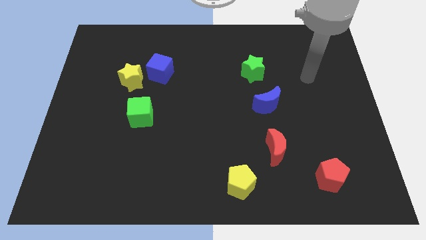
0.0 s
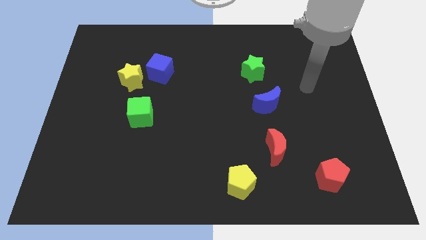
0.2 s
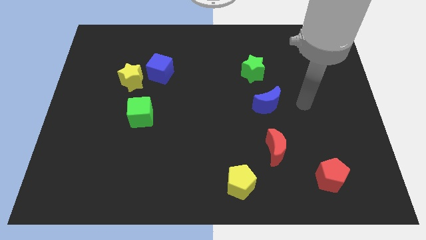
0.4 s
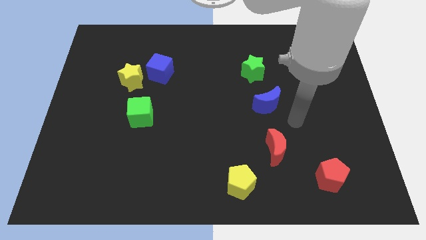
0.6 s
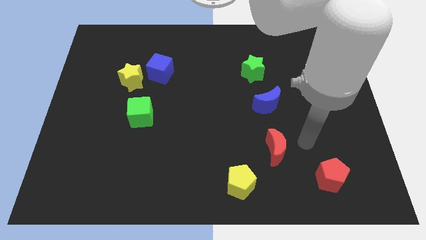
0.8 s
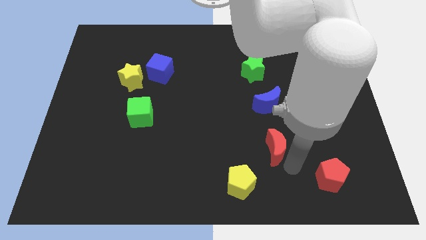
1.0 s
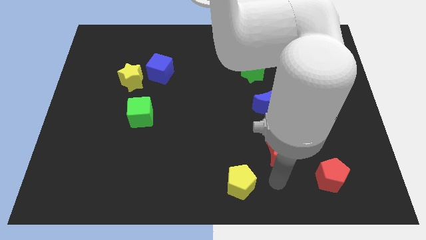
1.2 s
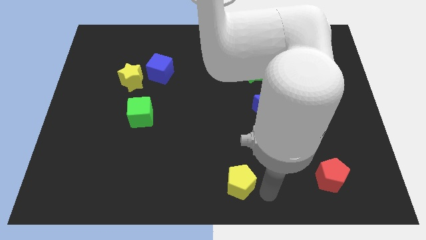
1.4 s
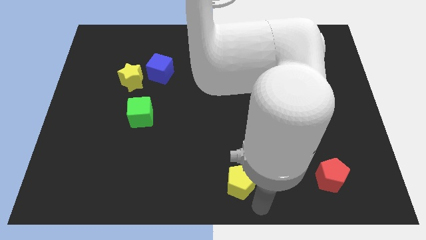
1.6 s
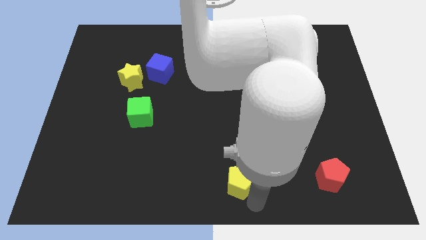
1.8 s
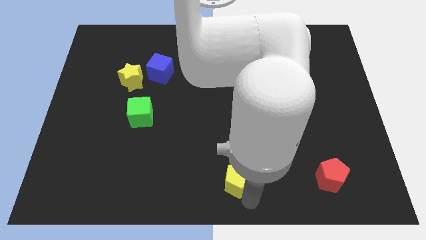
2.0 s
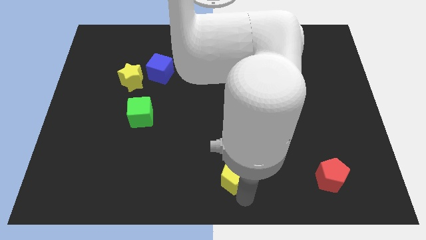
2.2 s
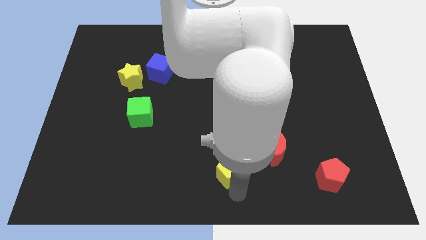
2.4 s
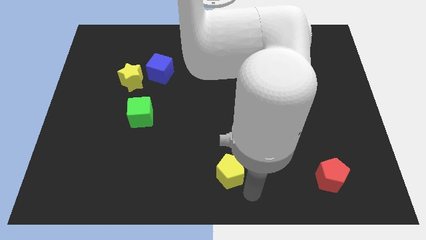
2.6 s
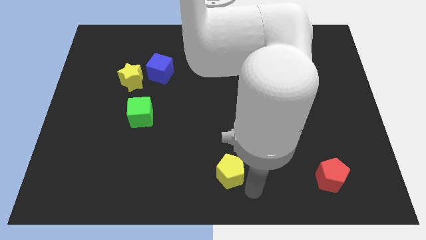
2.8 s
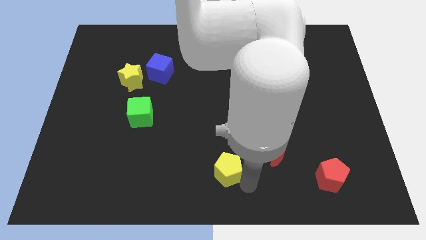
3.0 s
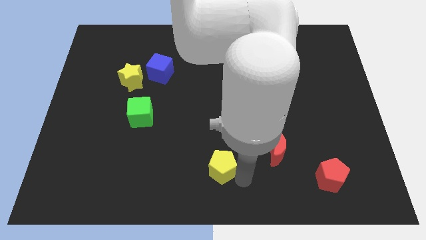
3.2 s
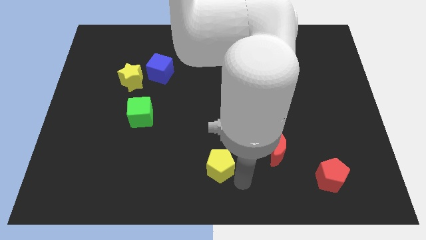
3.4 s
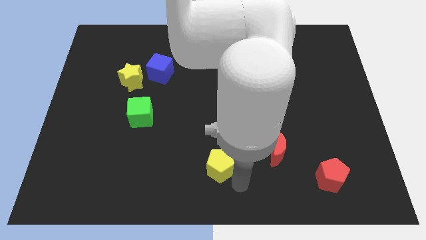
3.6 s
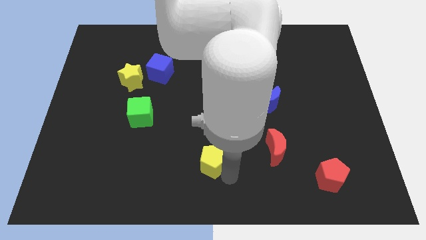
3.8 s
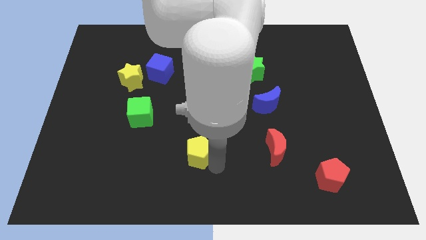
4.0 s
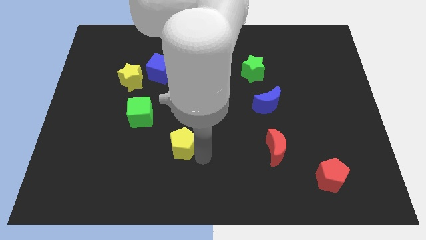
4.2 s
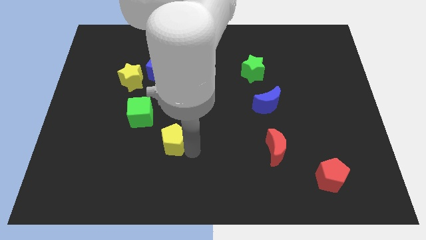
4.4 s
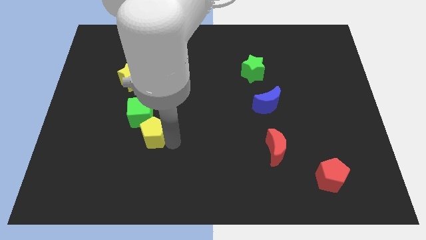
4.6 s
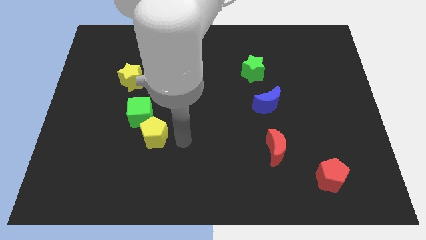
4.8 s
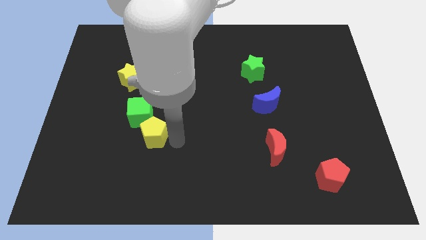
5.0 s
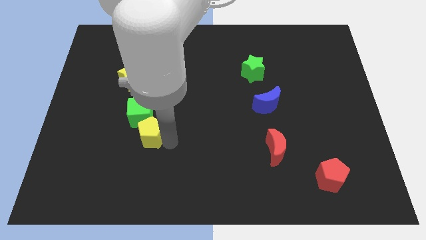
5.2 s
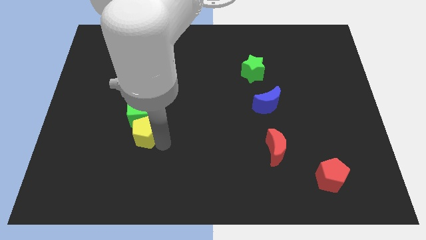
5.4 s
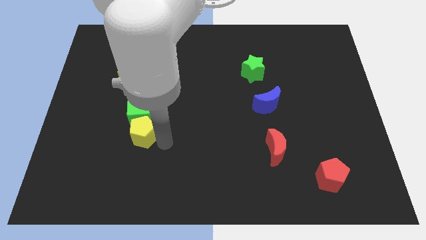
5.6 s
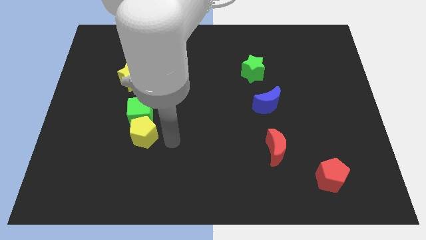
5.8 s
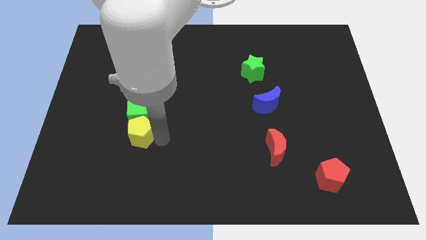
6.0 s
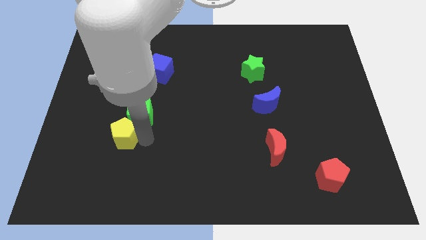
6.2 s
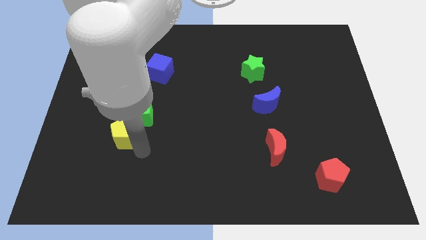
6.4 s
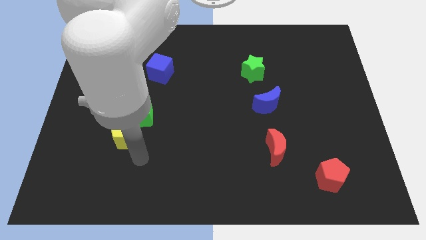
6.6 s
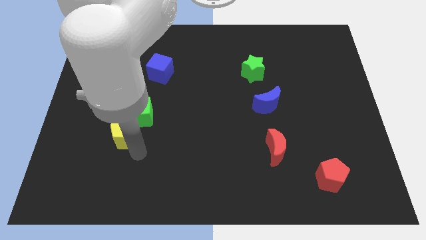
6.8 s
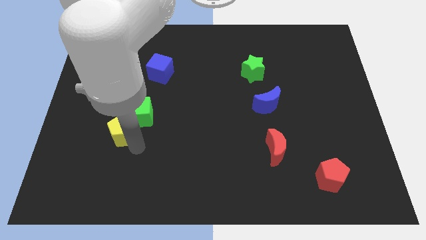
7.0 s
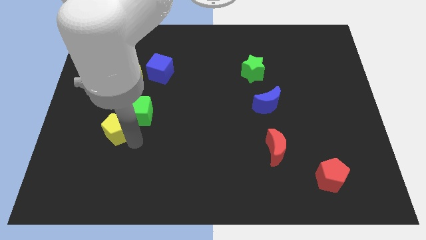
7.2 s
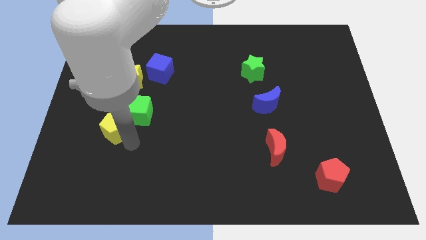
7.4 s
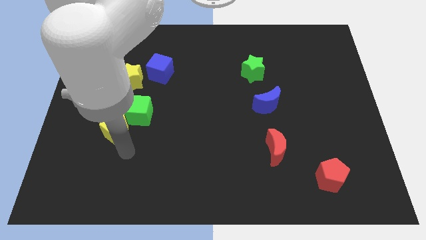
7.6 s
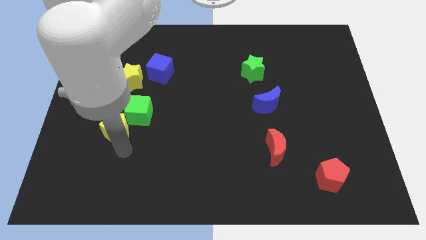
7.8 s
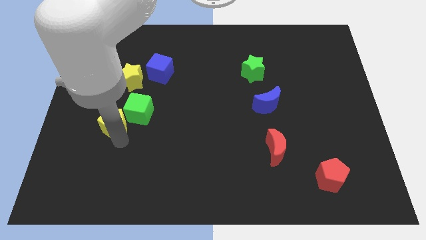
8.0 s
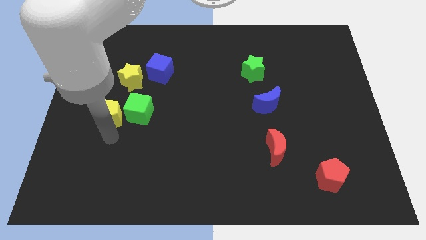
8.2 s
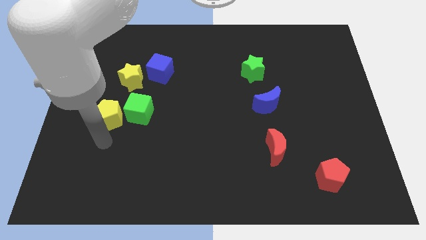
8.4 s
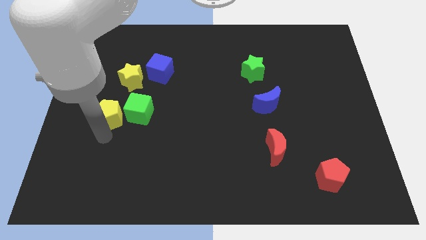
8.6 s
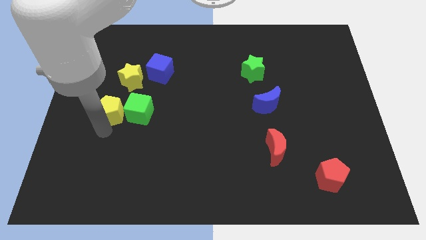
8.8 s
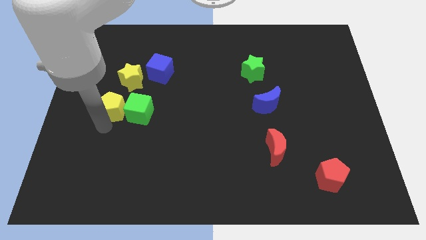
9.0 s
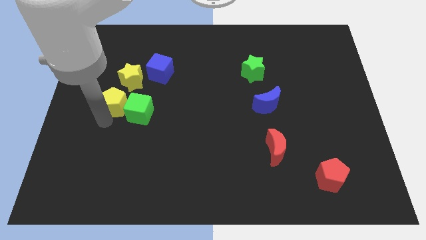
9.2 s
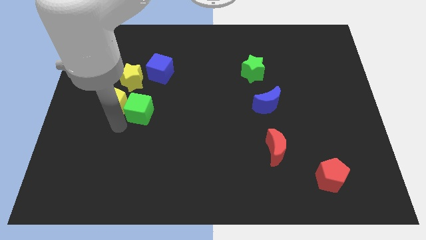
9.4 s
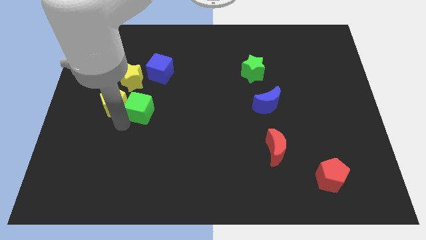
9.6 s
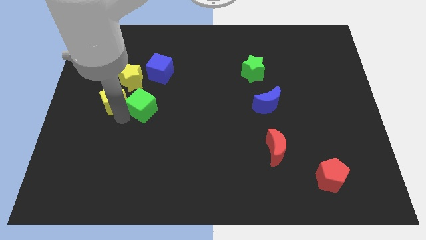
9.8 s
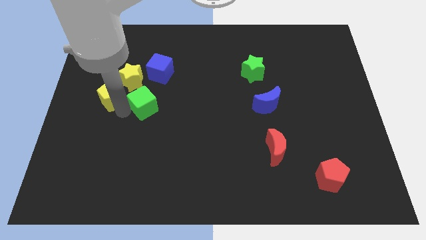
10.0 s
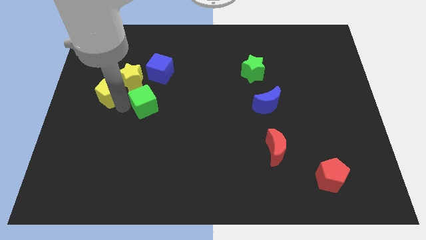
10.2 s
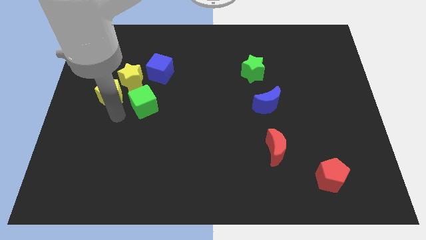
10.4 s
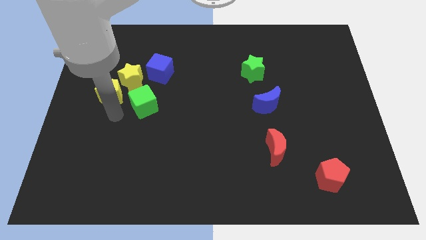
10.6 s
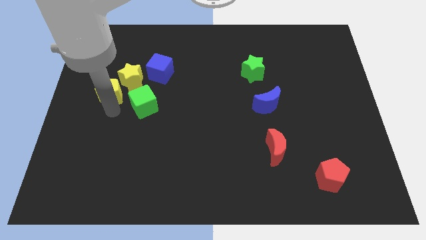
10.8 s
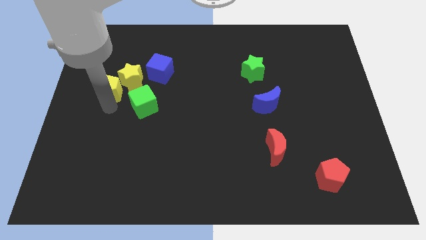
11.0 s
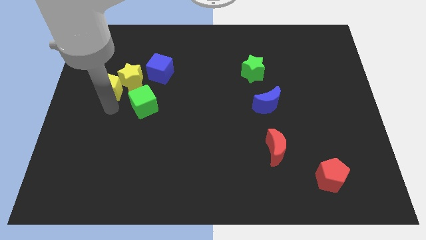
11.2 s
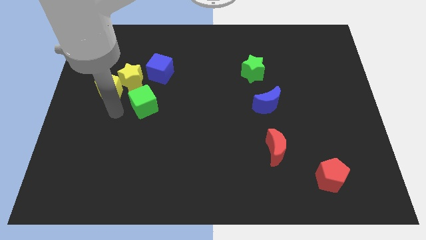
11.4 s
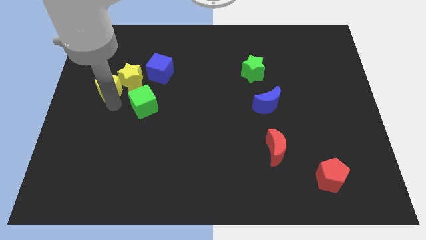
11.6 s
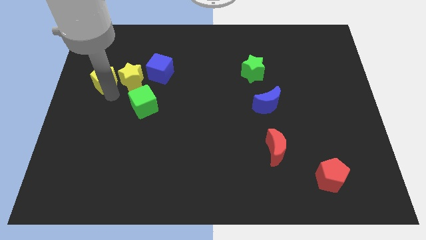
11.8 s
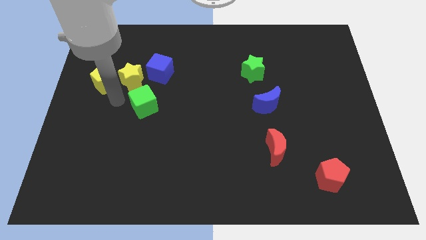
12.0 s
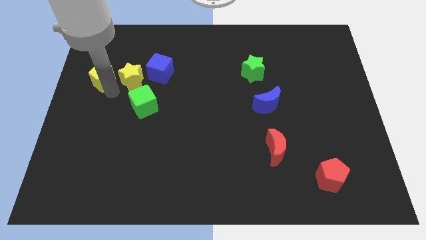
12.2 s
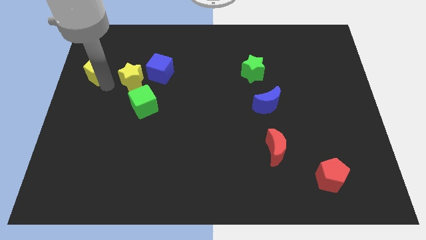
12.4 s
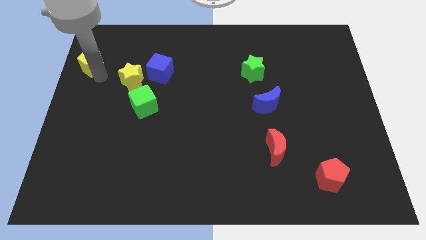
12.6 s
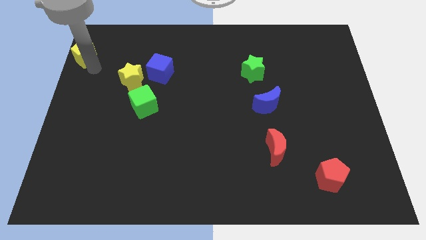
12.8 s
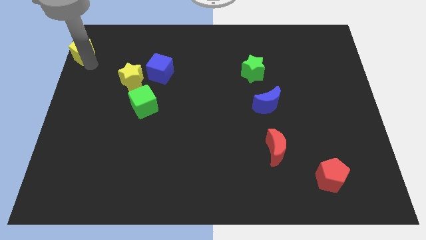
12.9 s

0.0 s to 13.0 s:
slide the yellow pentagon to the top left
